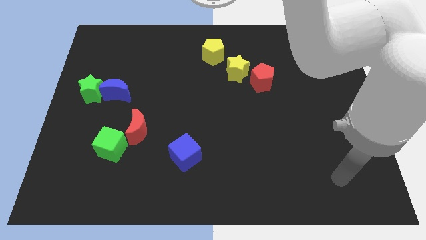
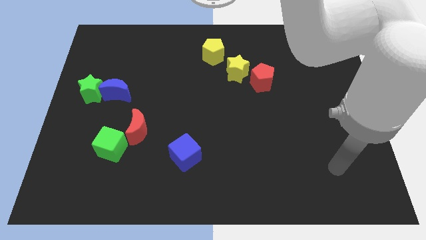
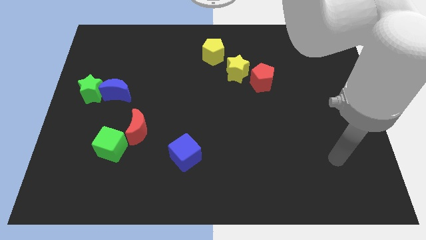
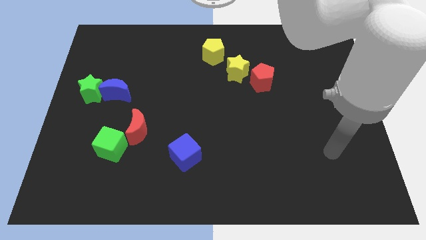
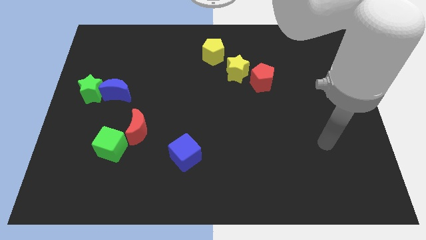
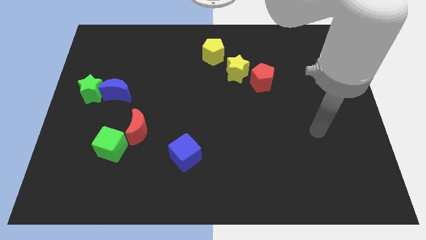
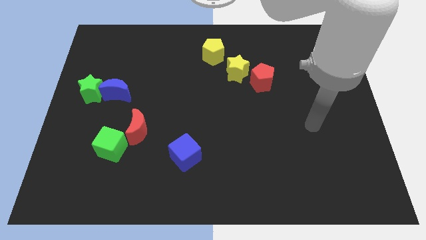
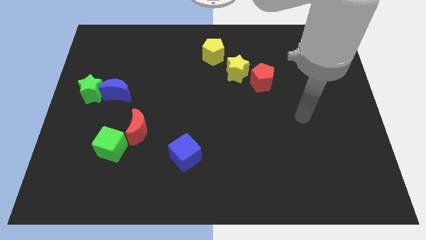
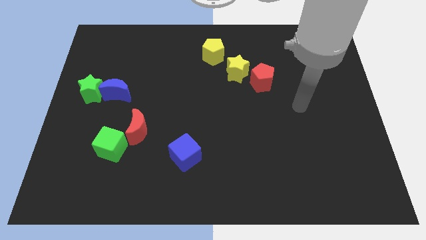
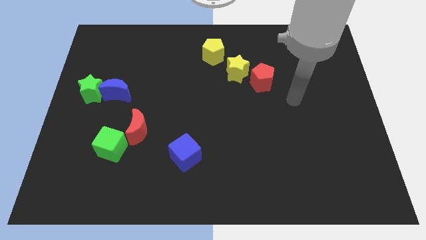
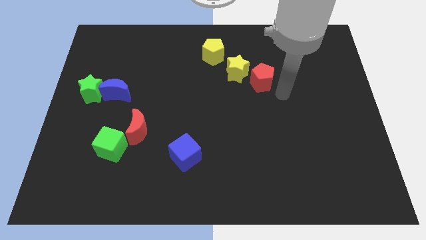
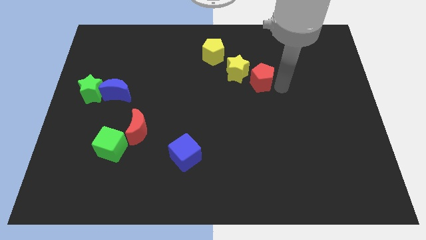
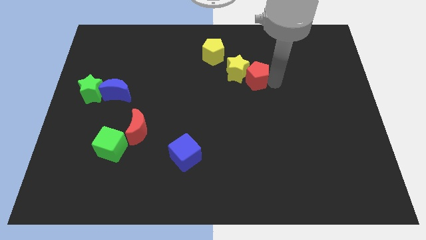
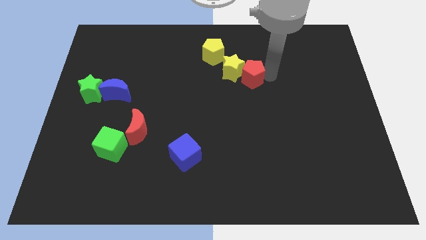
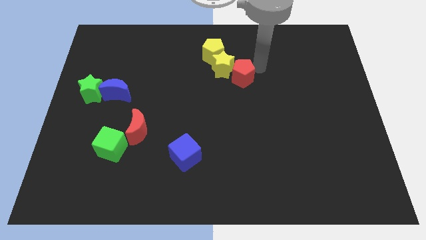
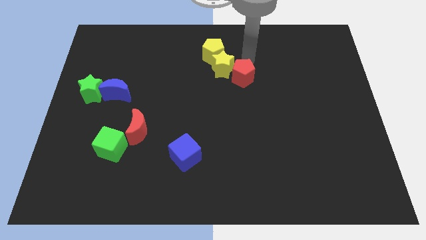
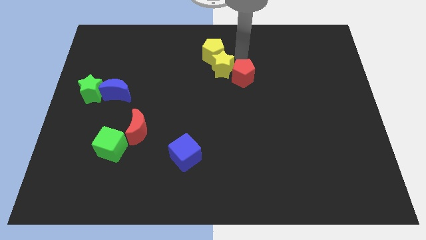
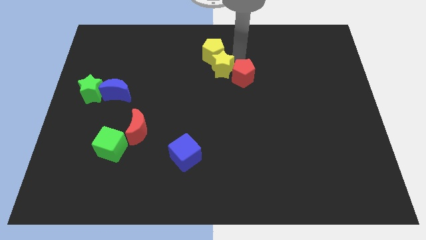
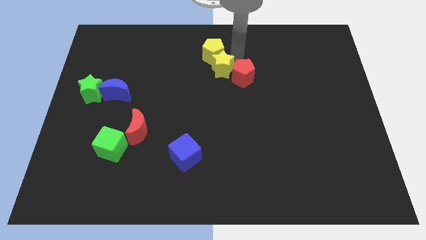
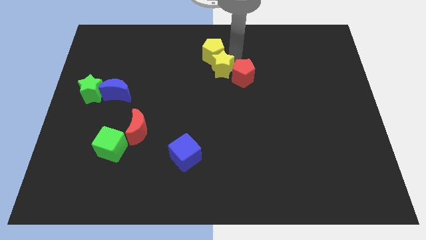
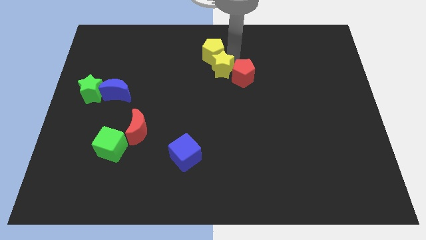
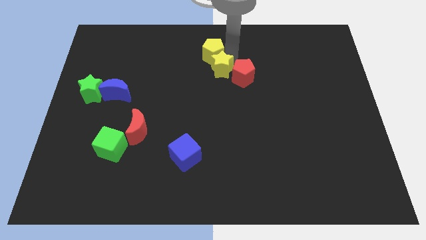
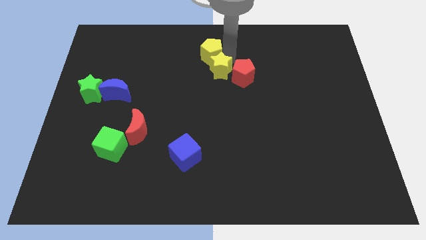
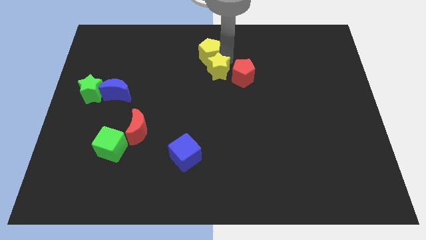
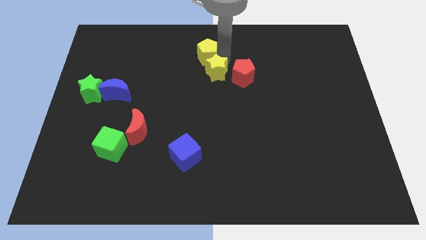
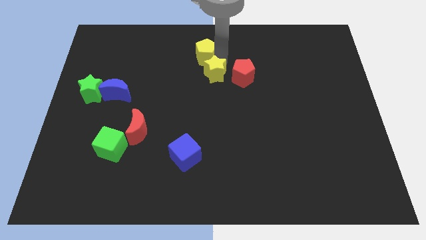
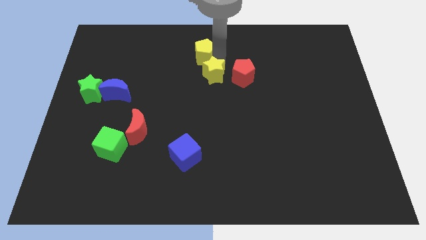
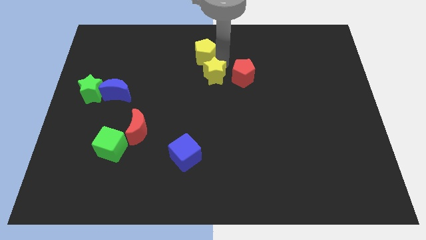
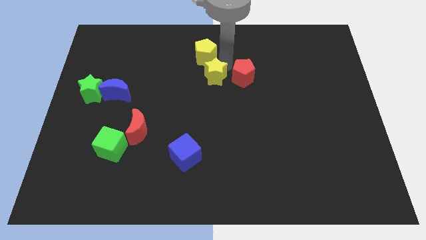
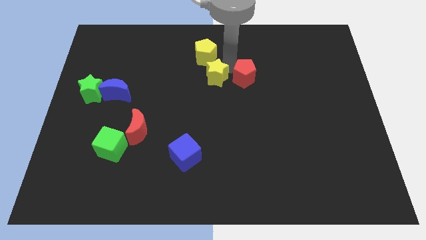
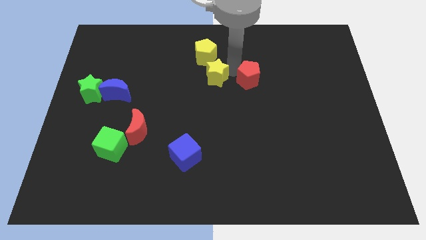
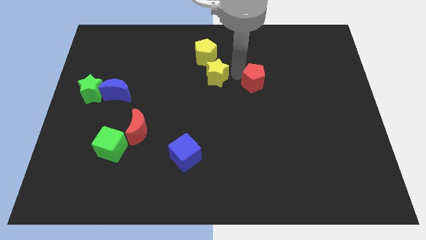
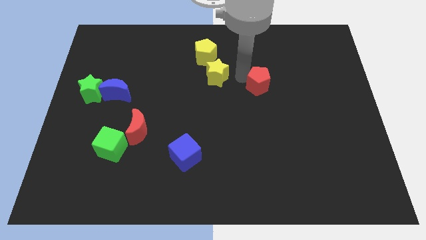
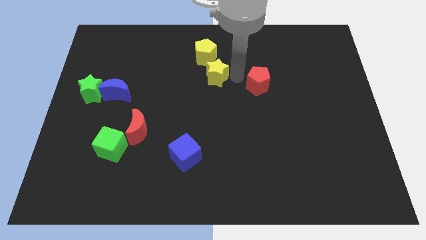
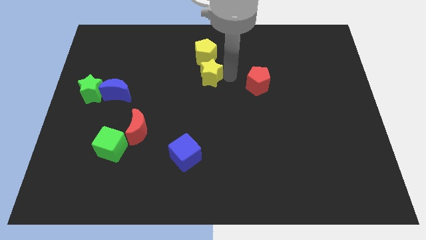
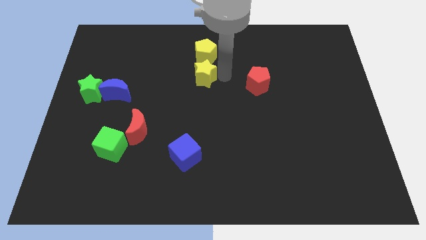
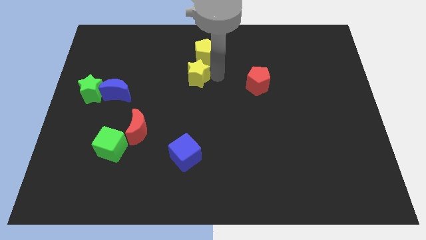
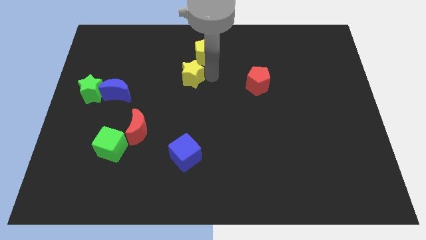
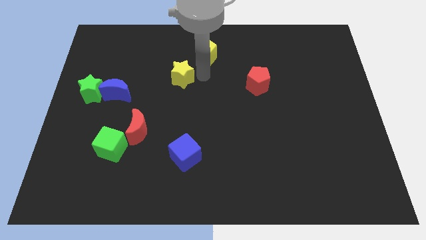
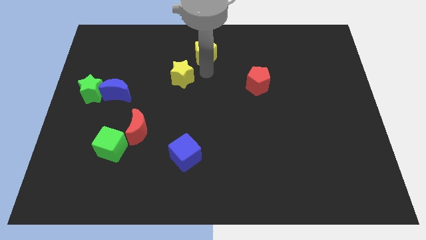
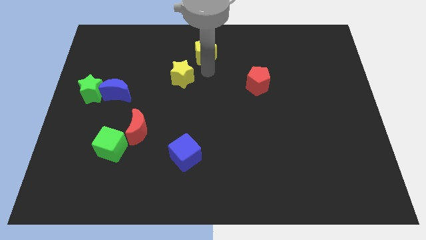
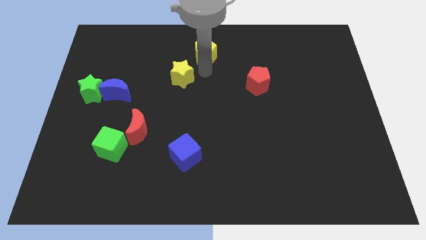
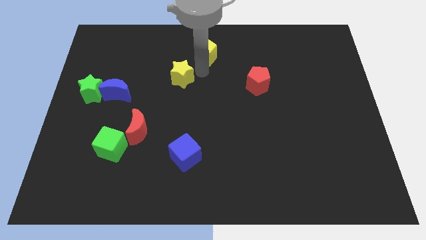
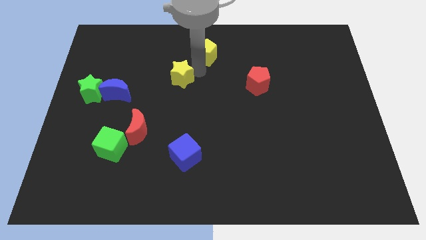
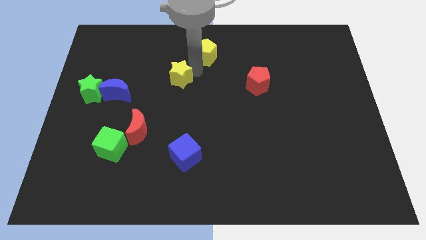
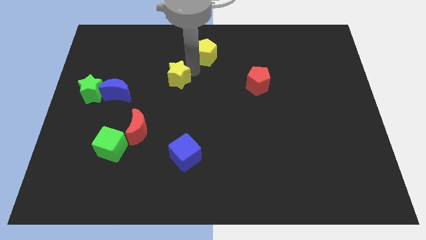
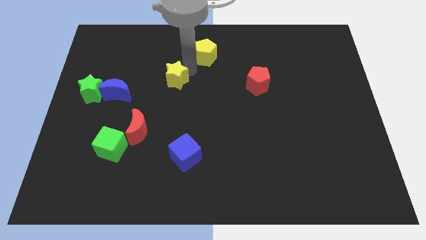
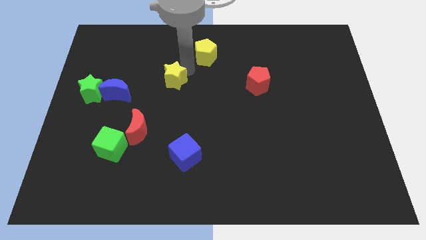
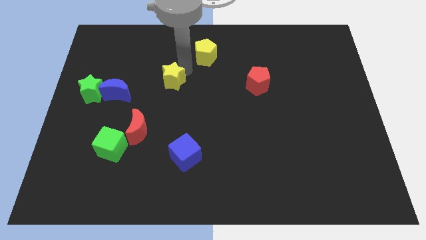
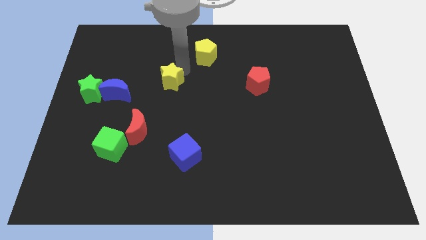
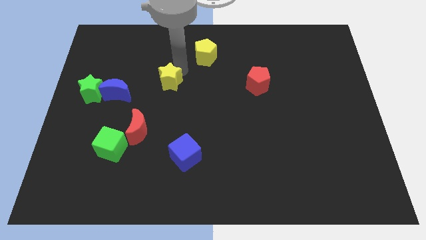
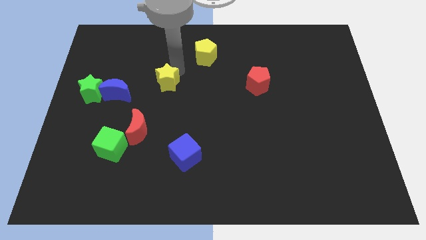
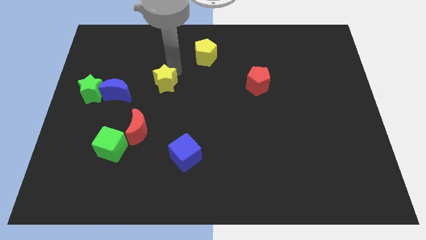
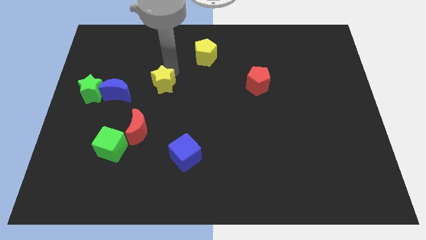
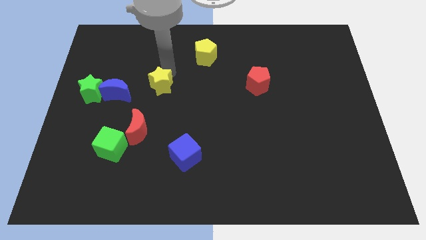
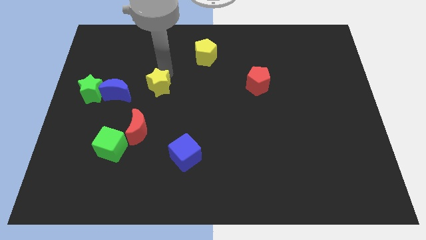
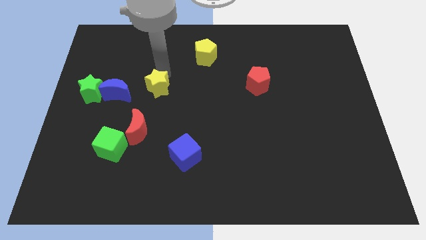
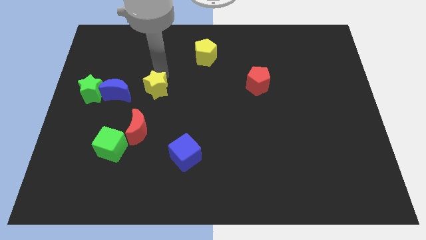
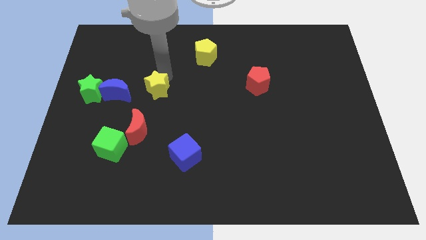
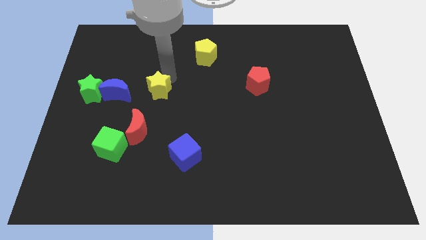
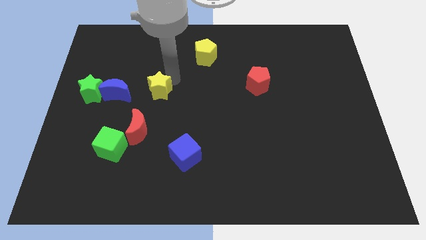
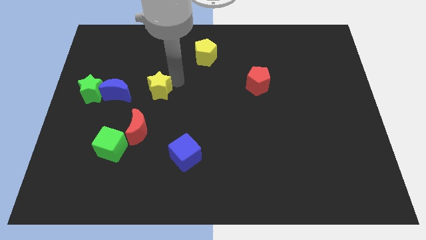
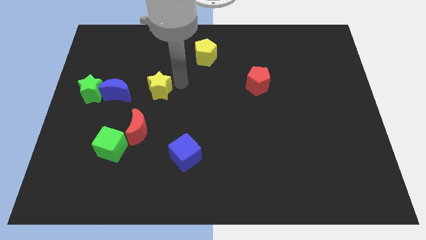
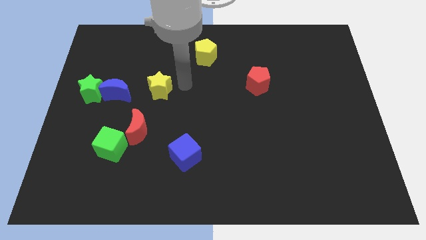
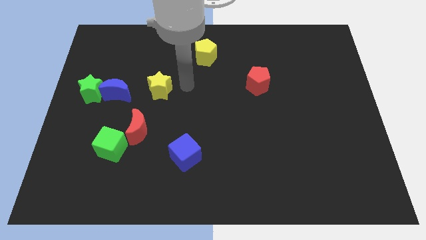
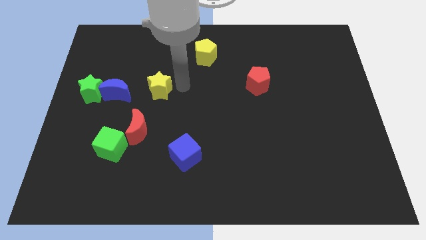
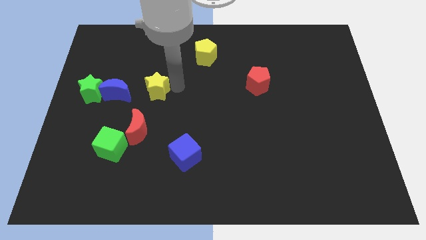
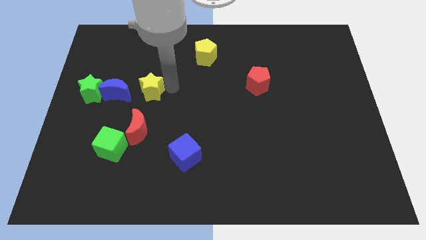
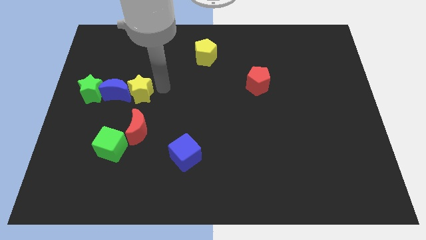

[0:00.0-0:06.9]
slide the yellow star next to the blue moon

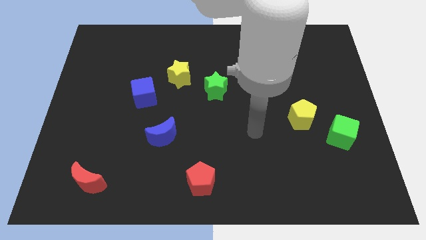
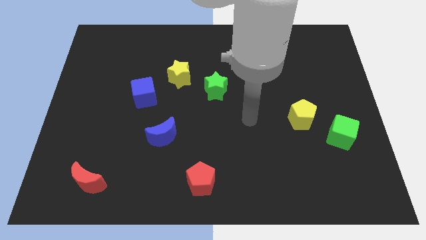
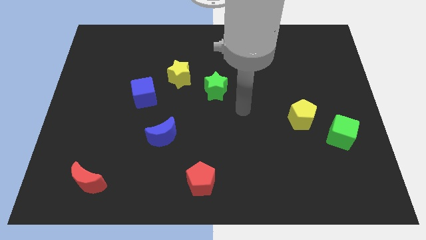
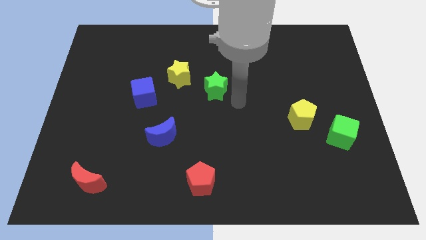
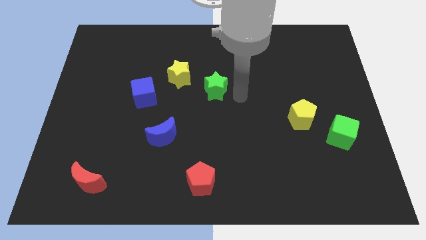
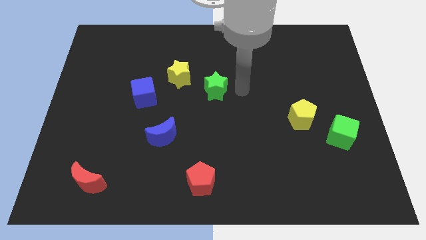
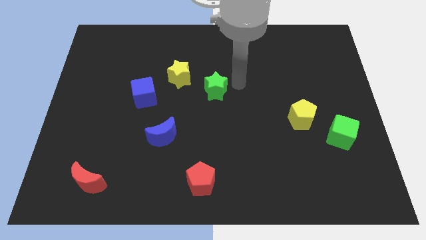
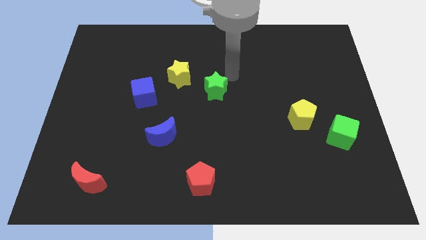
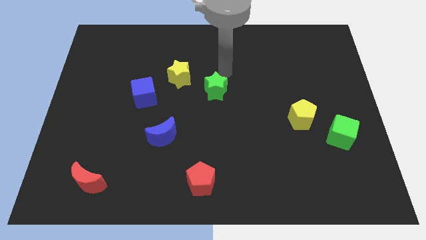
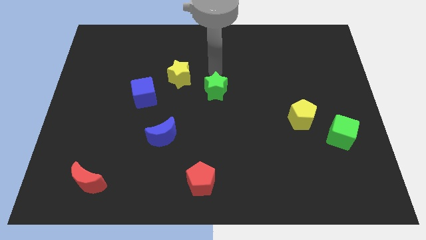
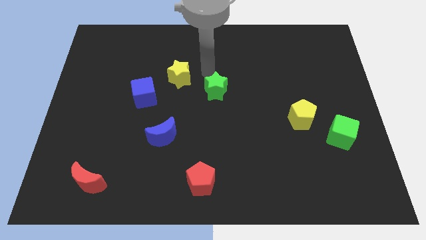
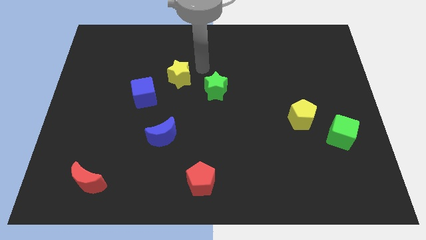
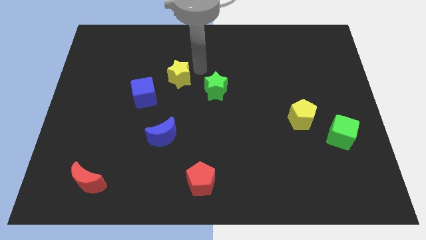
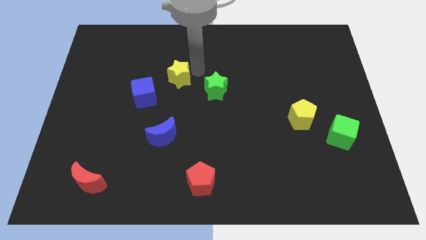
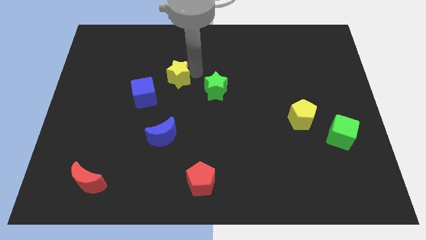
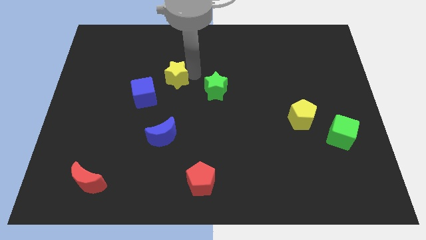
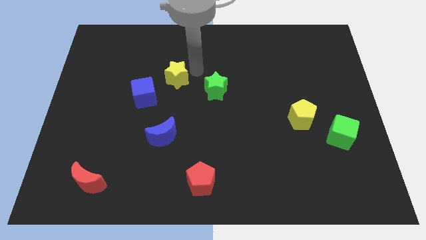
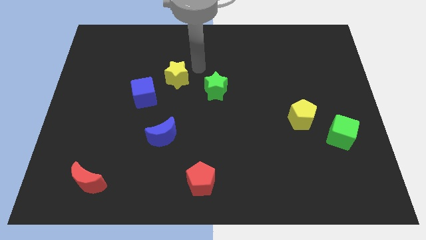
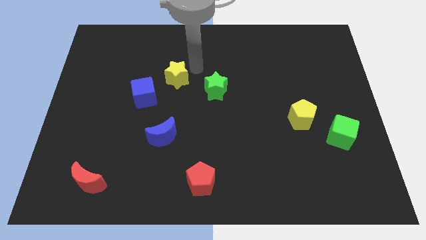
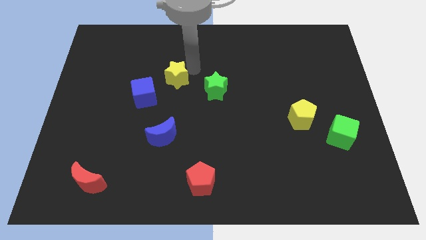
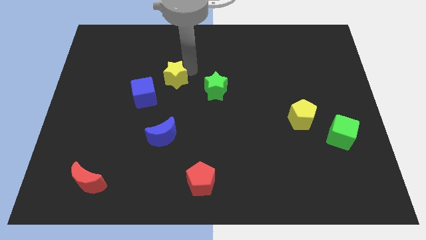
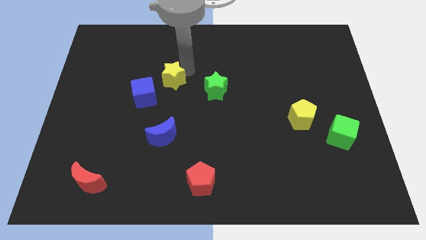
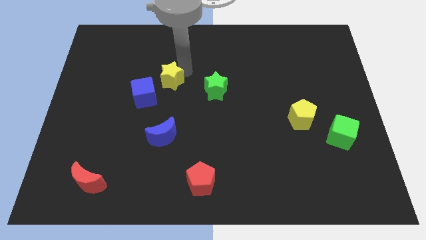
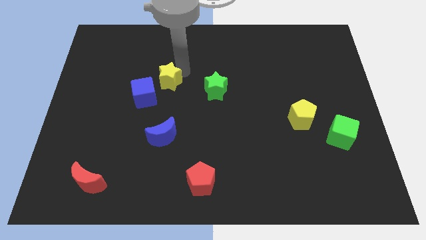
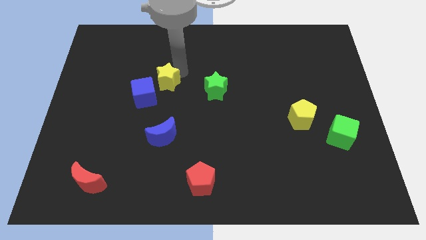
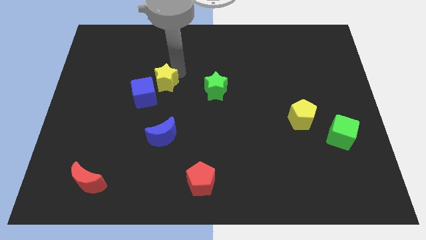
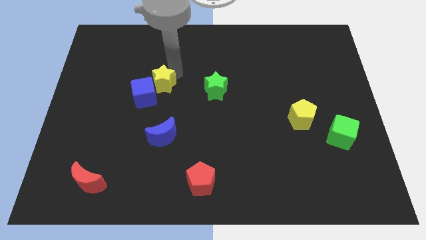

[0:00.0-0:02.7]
push the yellow star next to the blue cube
